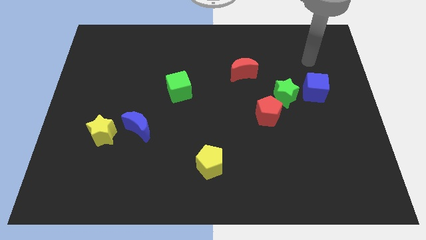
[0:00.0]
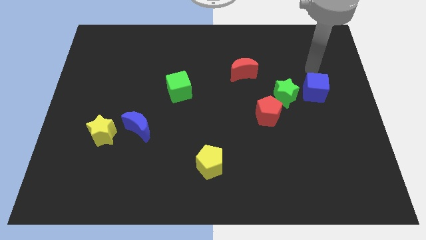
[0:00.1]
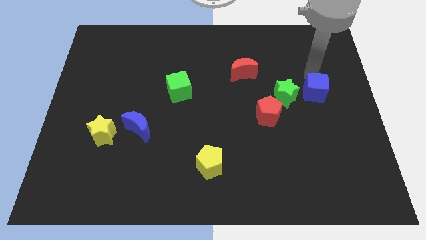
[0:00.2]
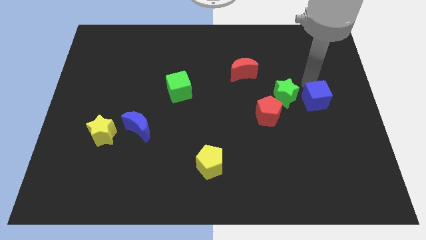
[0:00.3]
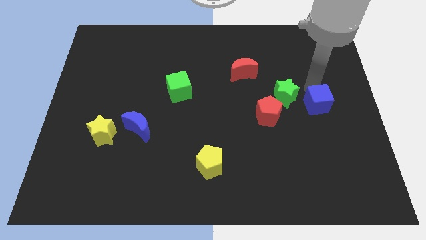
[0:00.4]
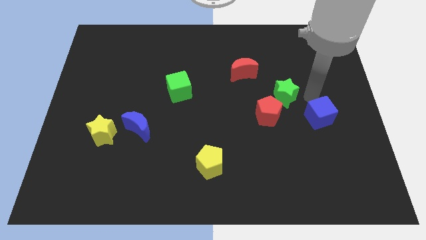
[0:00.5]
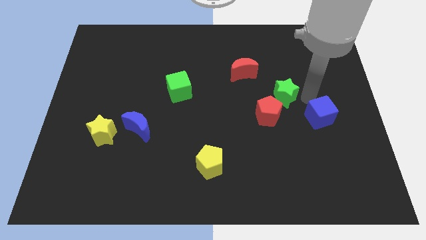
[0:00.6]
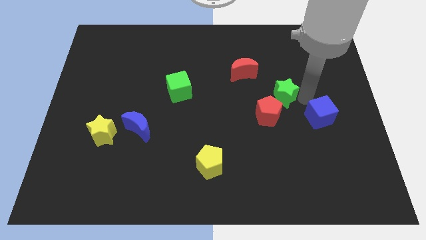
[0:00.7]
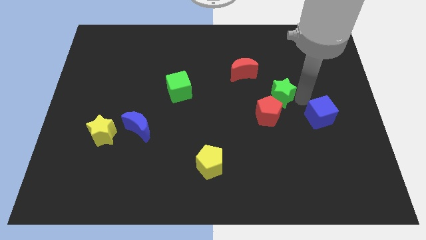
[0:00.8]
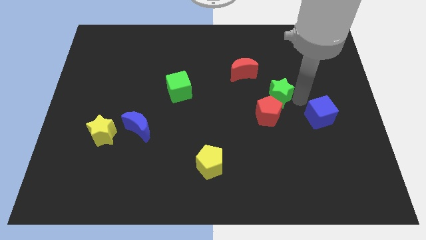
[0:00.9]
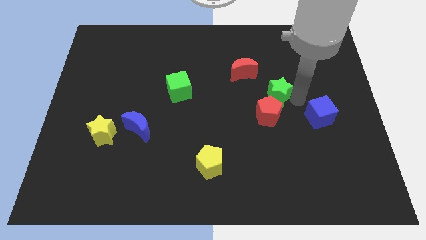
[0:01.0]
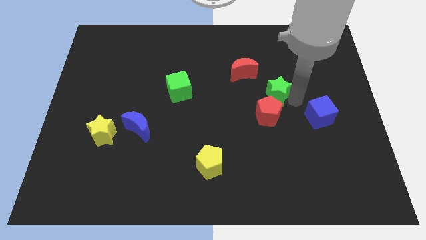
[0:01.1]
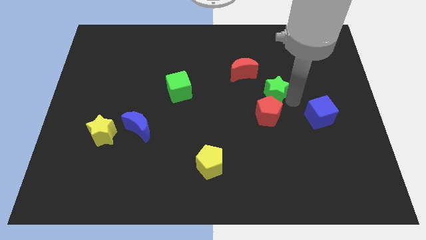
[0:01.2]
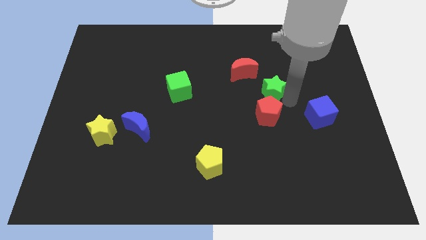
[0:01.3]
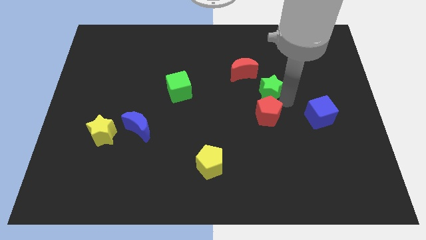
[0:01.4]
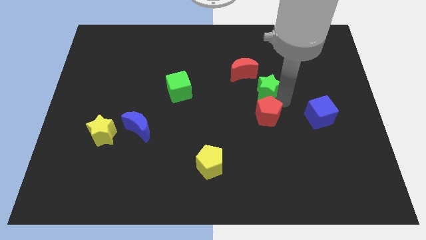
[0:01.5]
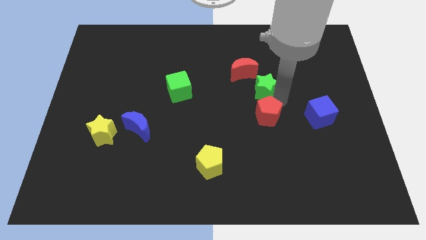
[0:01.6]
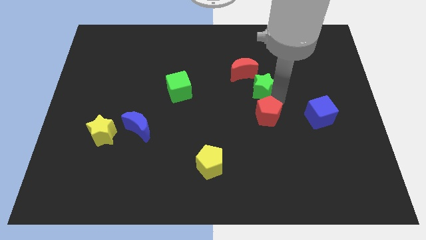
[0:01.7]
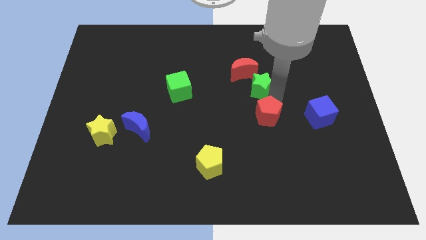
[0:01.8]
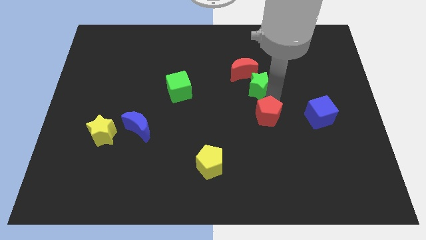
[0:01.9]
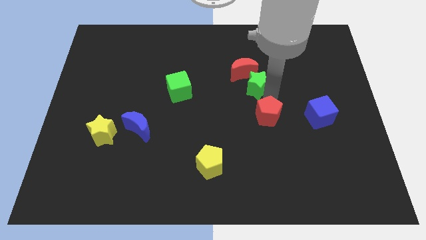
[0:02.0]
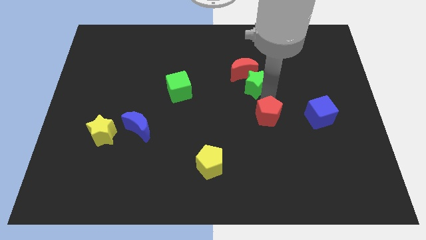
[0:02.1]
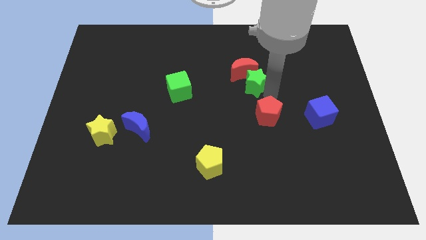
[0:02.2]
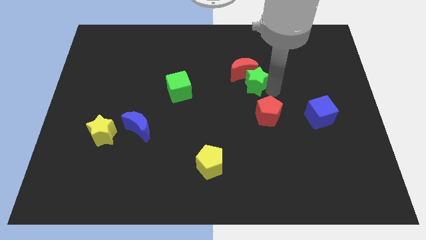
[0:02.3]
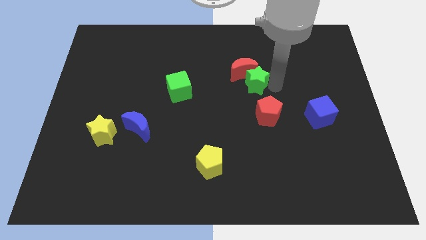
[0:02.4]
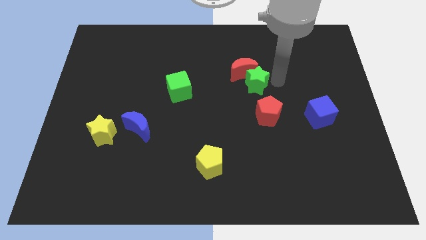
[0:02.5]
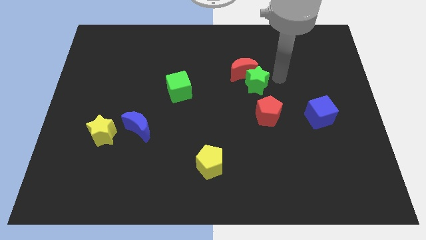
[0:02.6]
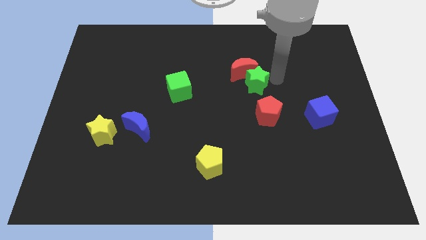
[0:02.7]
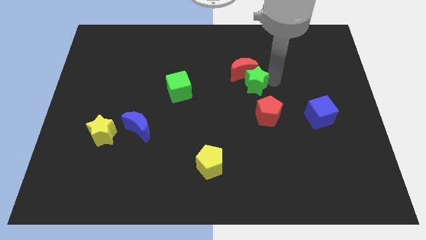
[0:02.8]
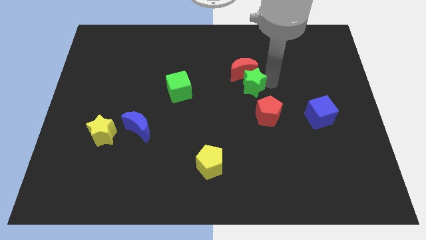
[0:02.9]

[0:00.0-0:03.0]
move the green star a bit to the left

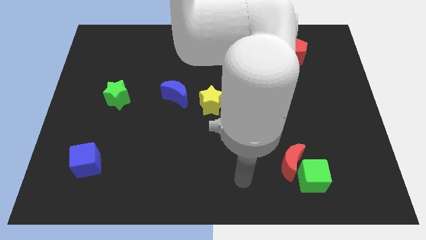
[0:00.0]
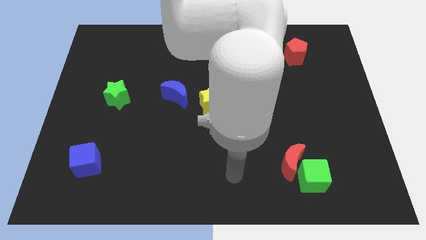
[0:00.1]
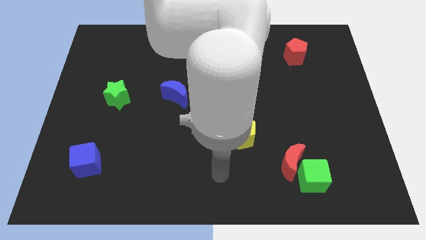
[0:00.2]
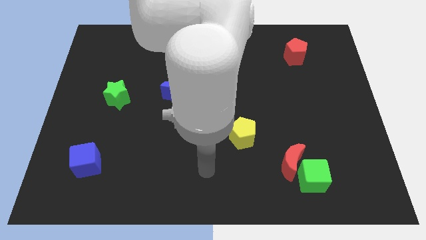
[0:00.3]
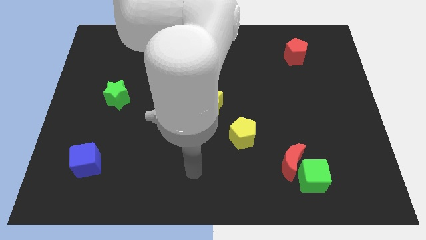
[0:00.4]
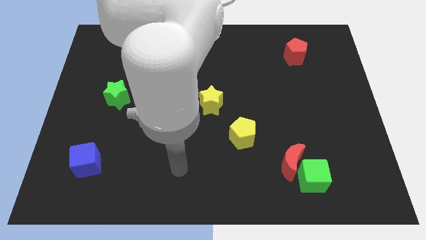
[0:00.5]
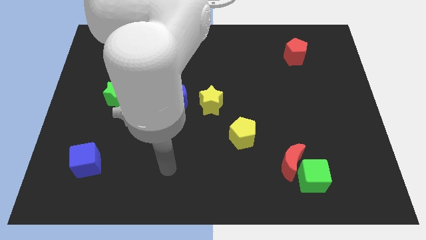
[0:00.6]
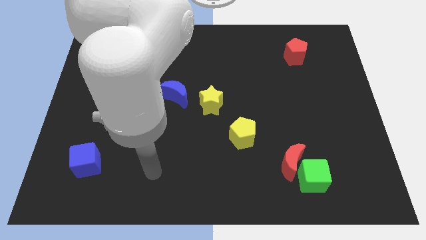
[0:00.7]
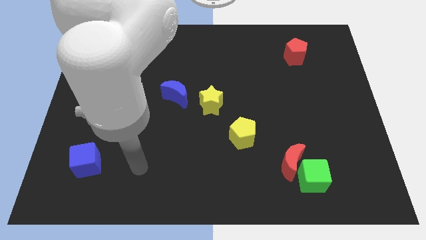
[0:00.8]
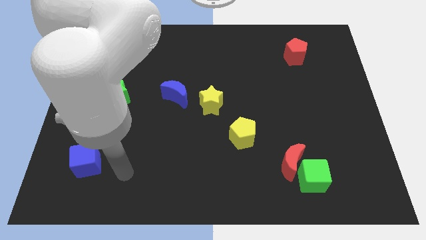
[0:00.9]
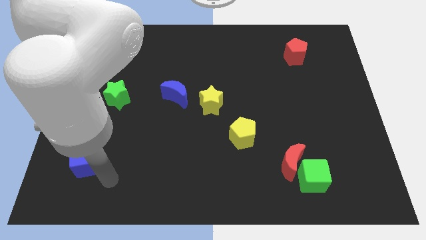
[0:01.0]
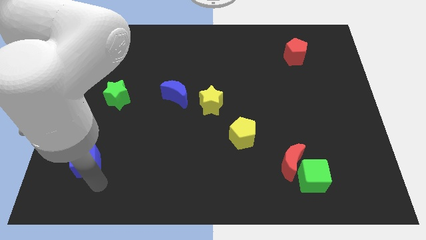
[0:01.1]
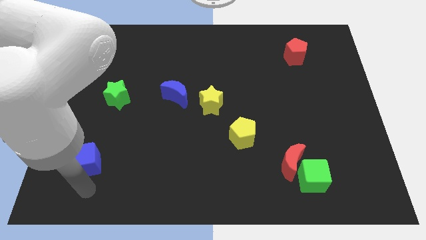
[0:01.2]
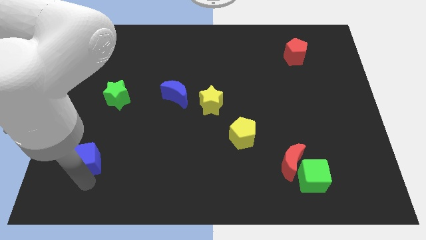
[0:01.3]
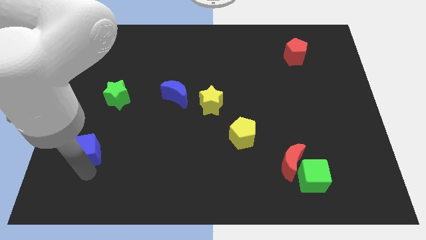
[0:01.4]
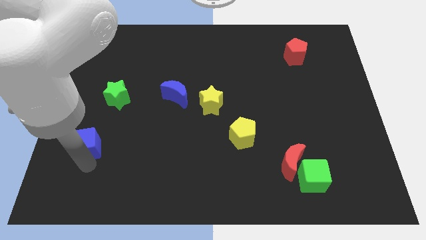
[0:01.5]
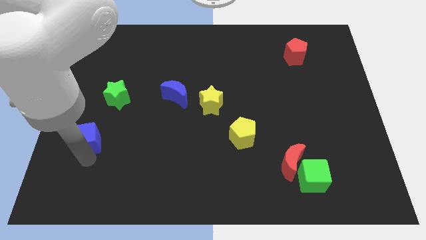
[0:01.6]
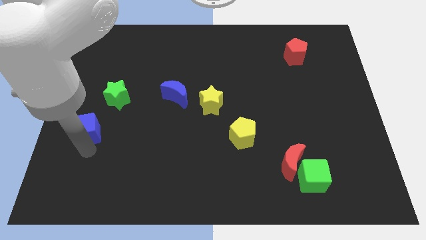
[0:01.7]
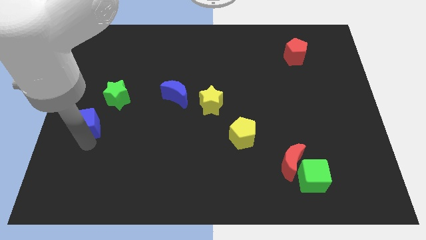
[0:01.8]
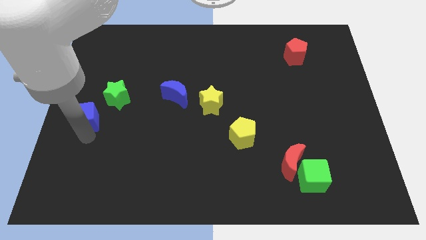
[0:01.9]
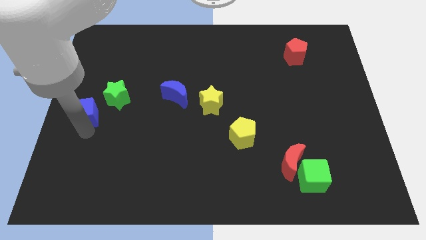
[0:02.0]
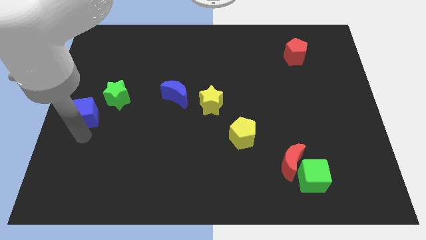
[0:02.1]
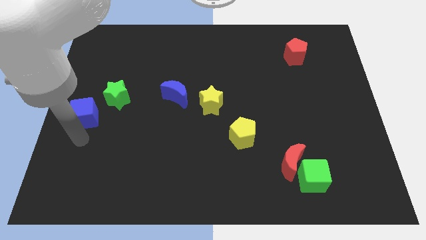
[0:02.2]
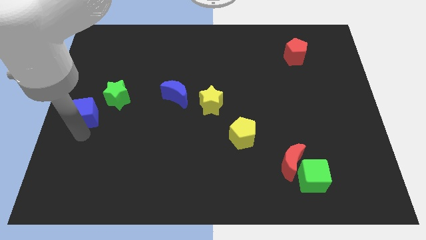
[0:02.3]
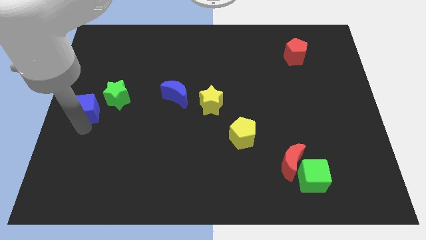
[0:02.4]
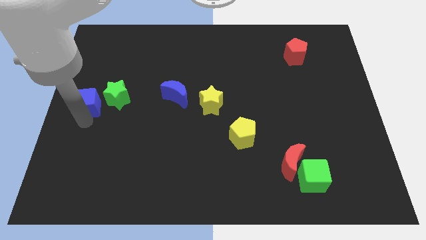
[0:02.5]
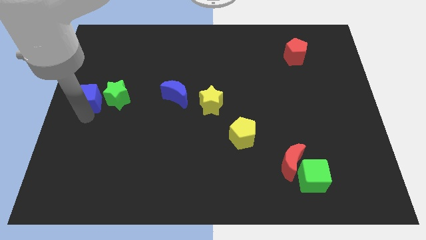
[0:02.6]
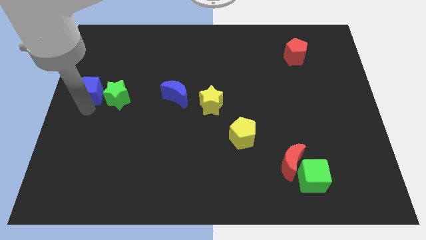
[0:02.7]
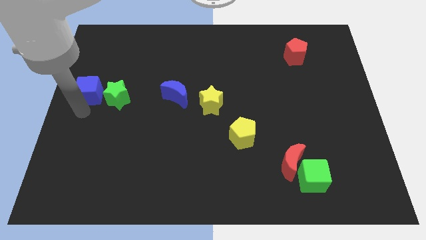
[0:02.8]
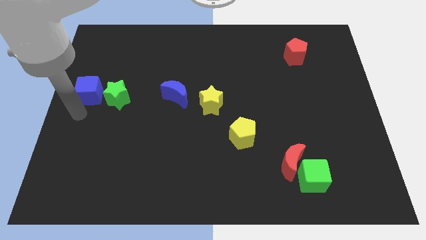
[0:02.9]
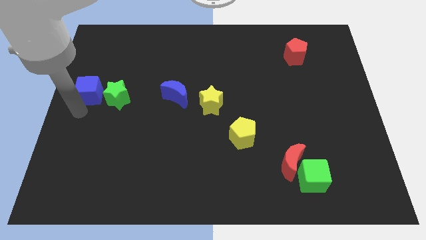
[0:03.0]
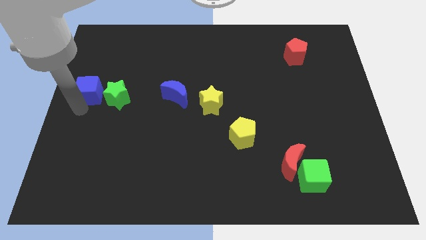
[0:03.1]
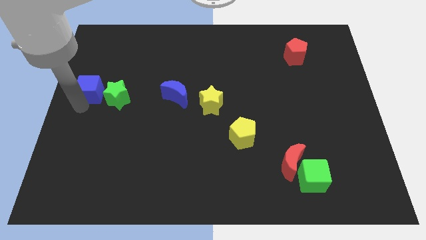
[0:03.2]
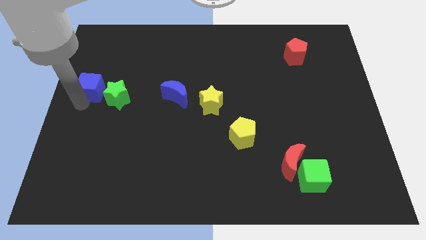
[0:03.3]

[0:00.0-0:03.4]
slide the blue cube up

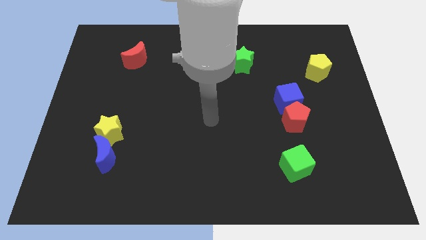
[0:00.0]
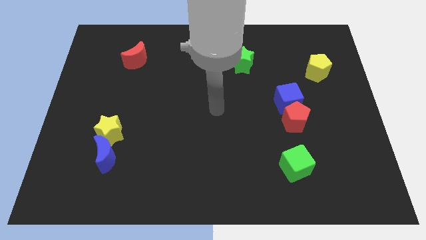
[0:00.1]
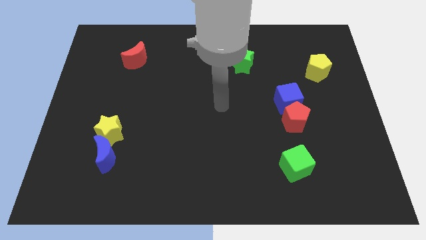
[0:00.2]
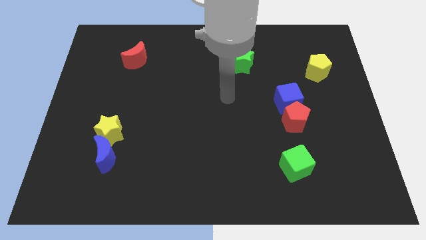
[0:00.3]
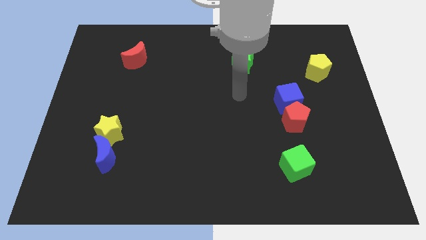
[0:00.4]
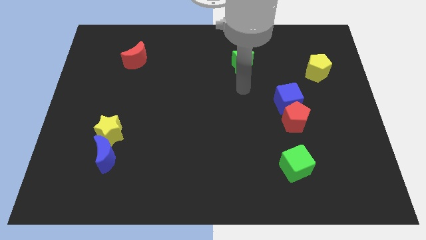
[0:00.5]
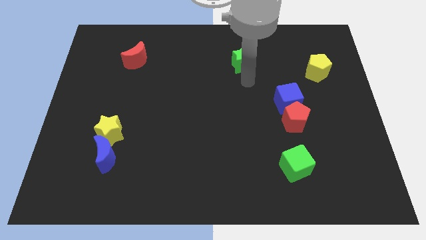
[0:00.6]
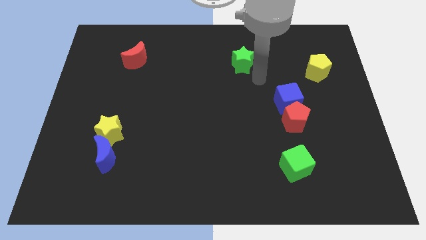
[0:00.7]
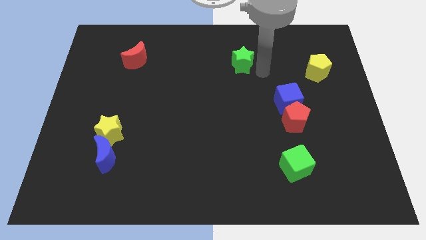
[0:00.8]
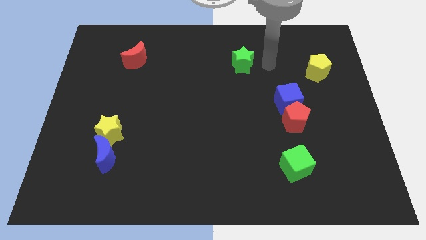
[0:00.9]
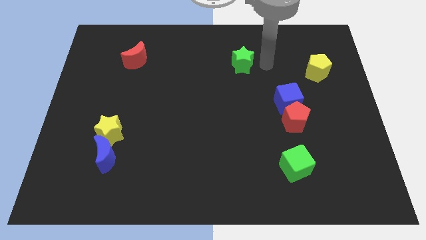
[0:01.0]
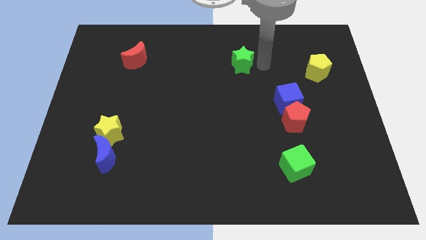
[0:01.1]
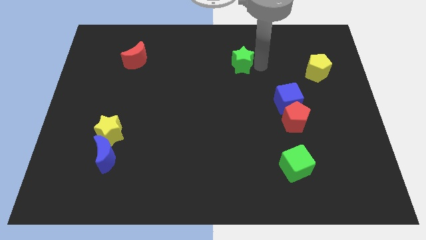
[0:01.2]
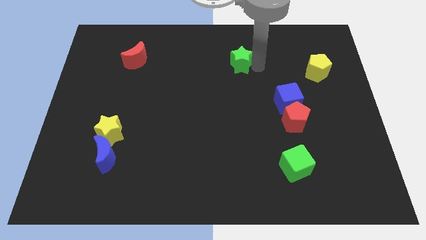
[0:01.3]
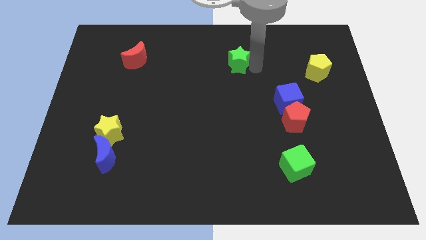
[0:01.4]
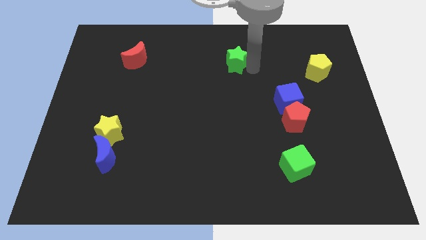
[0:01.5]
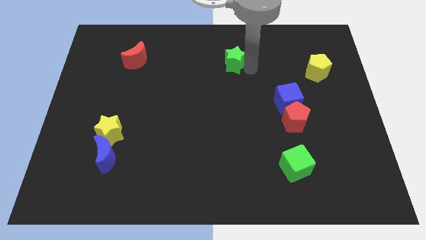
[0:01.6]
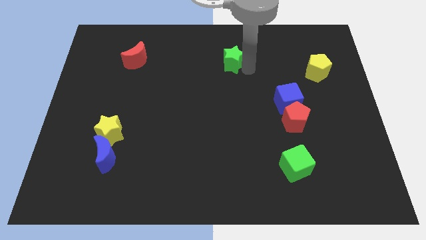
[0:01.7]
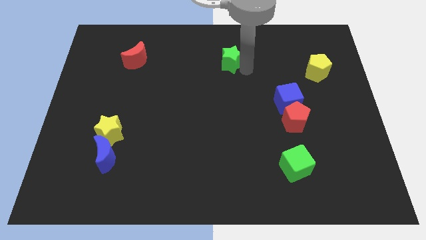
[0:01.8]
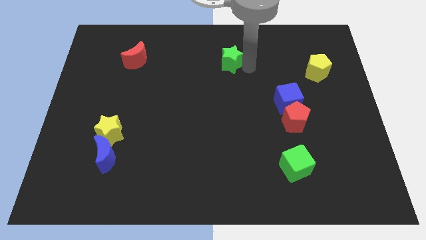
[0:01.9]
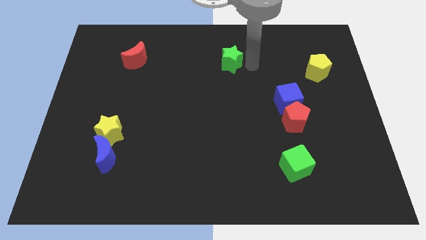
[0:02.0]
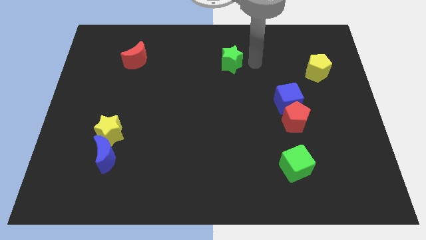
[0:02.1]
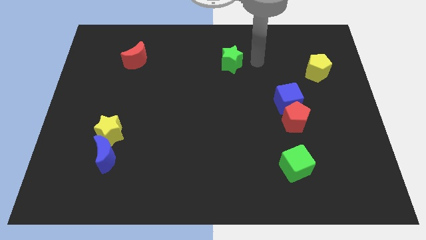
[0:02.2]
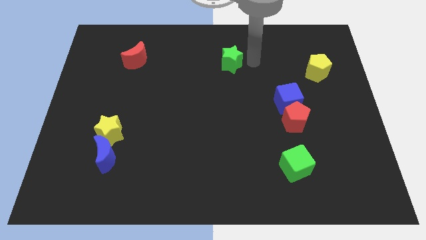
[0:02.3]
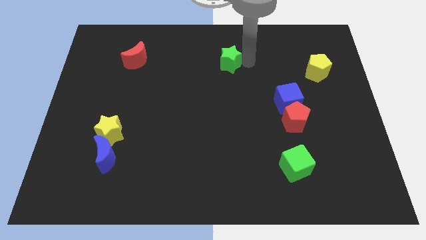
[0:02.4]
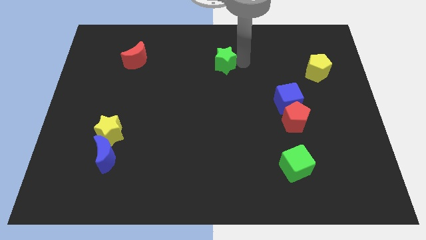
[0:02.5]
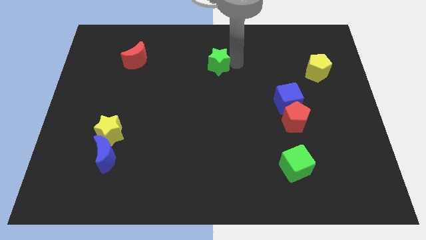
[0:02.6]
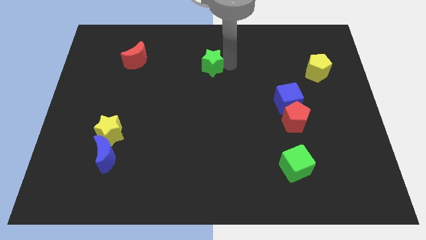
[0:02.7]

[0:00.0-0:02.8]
slightly push the green star left
